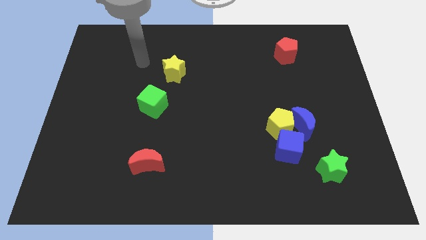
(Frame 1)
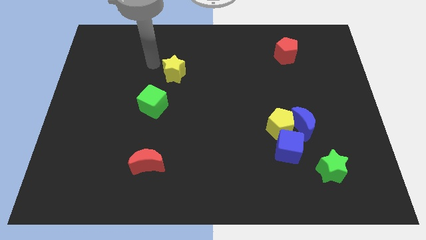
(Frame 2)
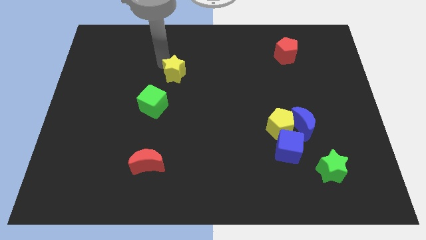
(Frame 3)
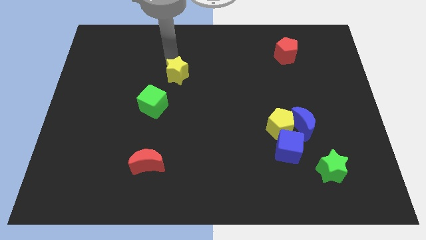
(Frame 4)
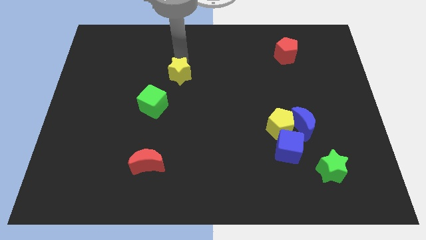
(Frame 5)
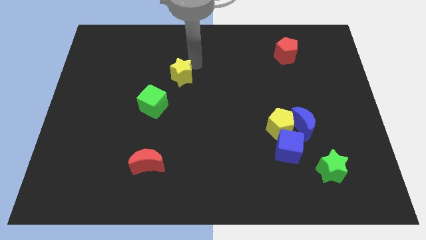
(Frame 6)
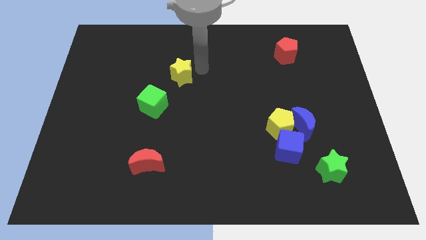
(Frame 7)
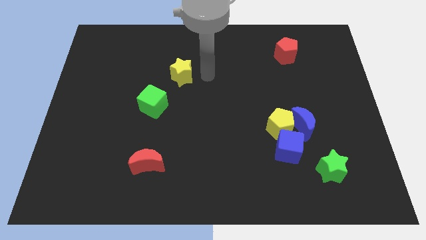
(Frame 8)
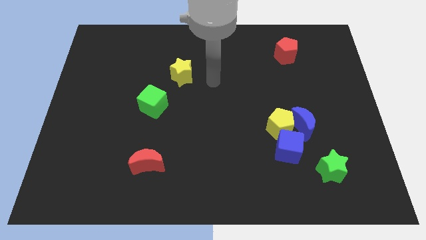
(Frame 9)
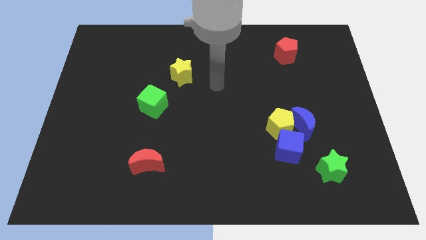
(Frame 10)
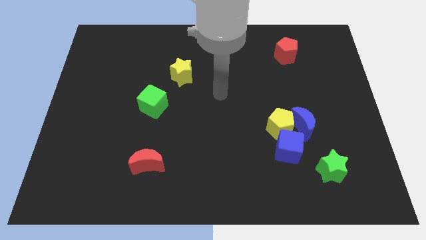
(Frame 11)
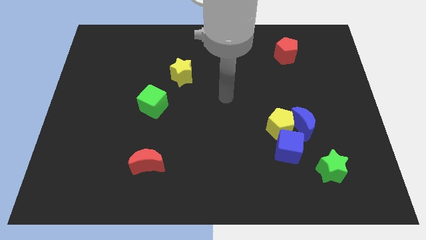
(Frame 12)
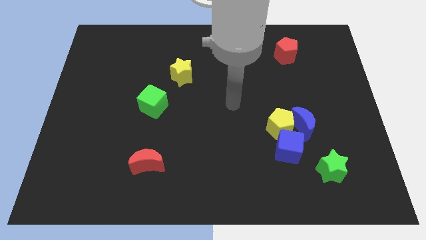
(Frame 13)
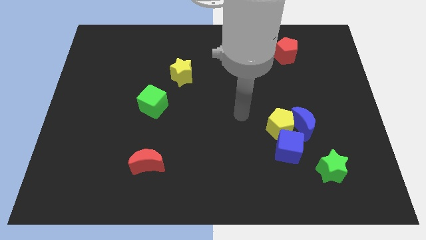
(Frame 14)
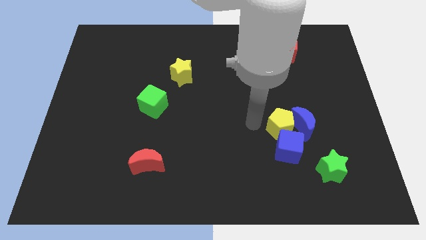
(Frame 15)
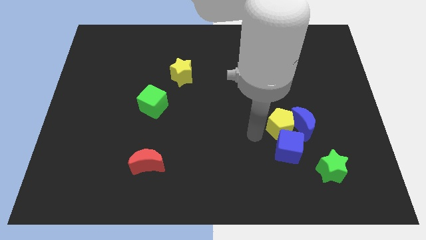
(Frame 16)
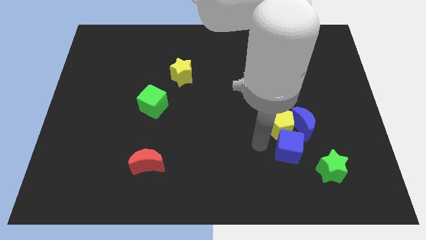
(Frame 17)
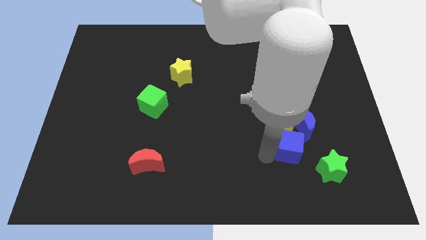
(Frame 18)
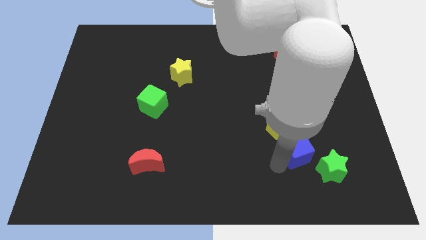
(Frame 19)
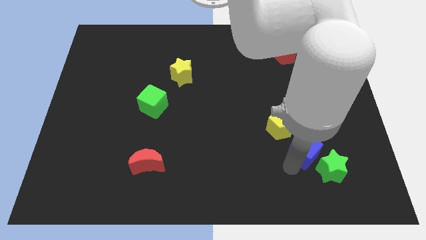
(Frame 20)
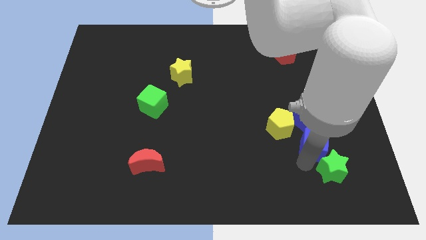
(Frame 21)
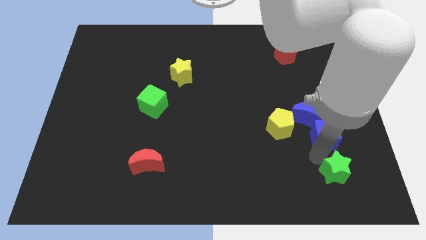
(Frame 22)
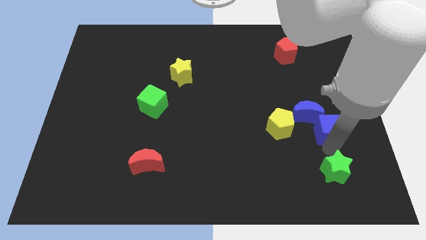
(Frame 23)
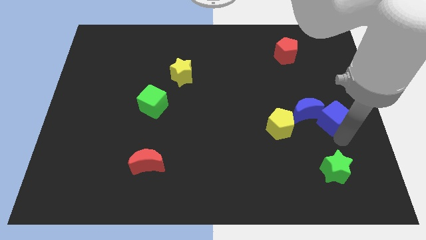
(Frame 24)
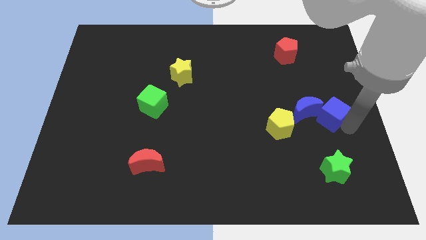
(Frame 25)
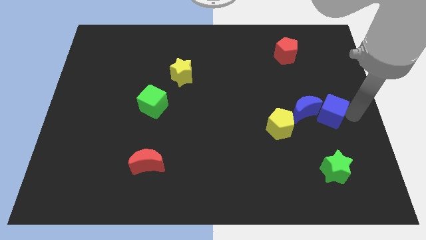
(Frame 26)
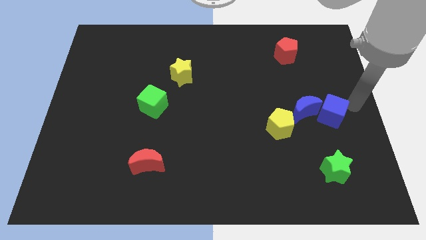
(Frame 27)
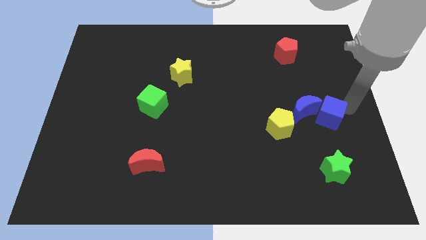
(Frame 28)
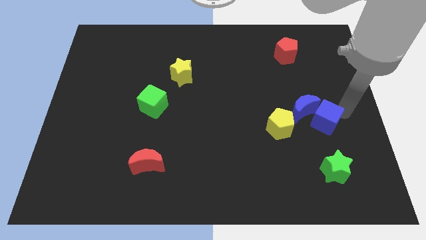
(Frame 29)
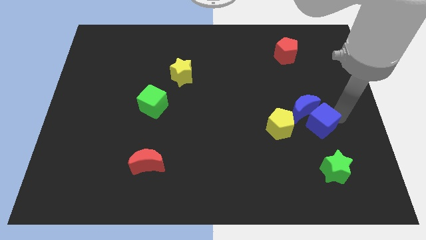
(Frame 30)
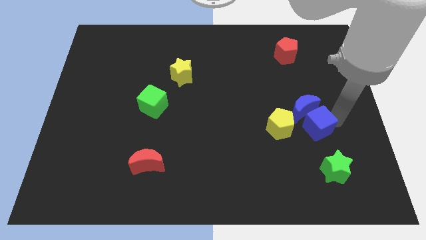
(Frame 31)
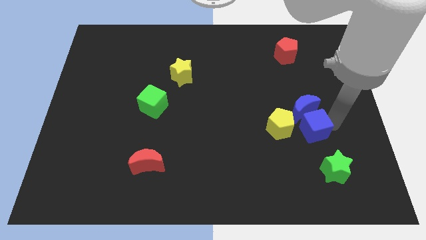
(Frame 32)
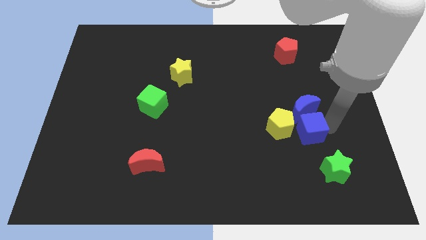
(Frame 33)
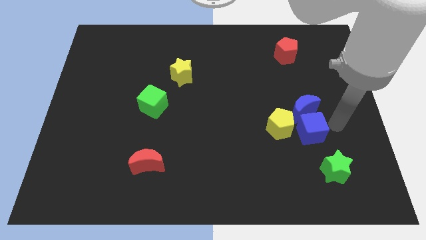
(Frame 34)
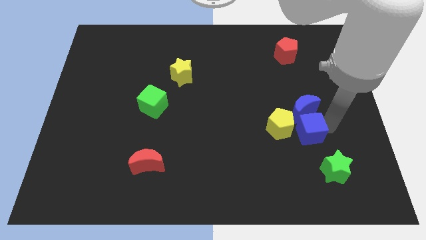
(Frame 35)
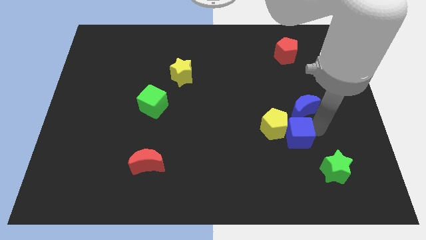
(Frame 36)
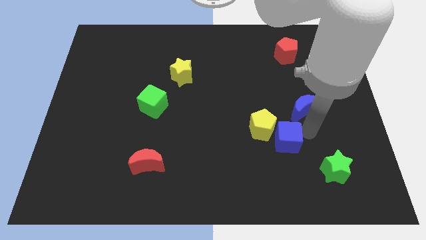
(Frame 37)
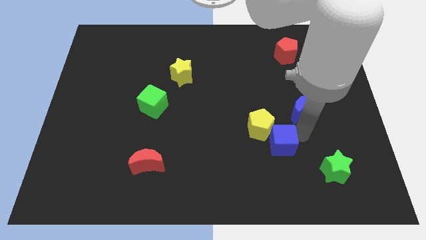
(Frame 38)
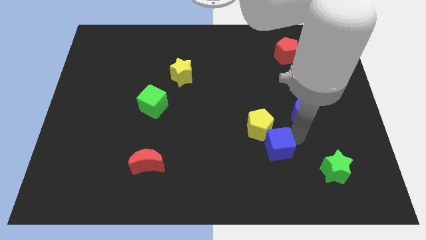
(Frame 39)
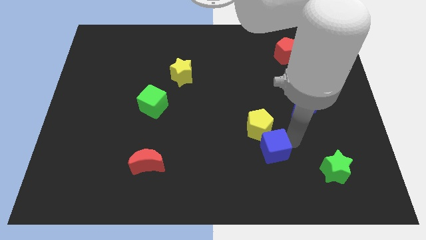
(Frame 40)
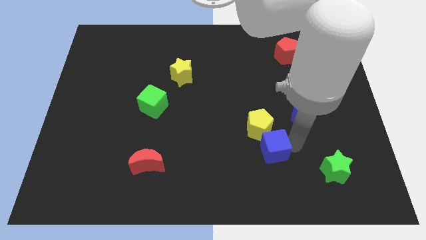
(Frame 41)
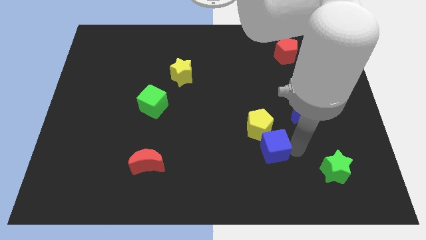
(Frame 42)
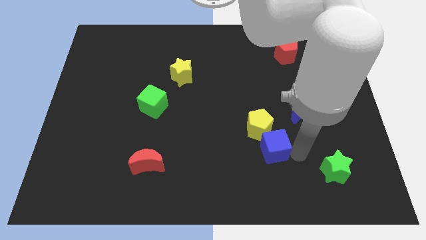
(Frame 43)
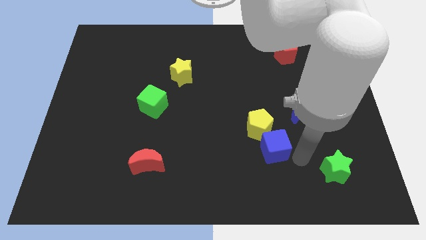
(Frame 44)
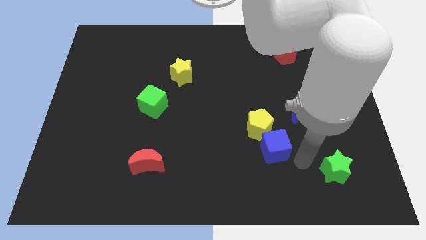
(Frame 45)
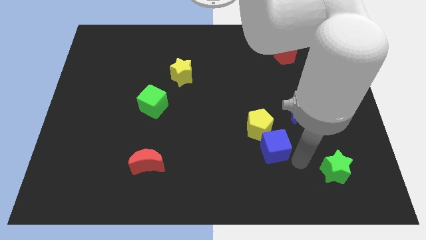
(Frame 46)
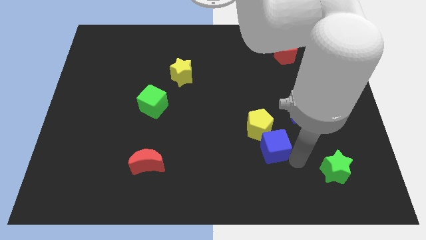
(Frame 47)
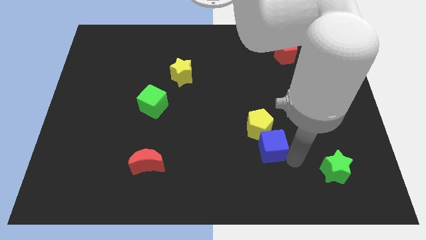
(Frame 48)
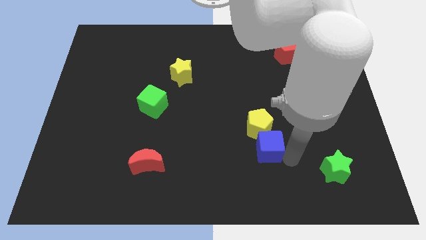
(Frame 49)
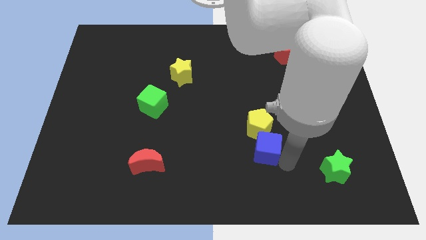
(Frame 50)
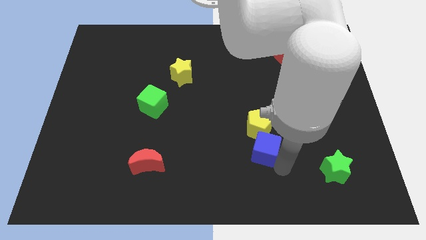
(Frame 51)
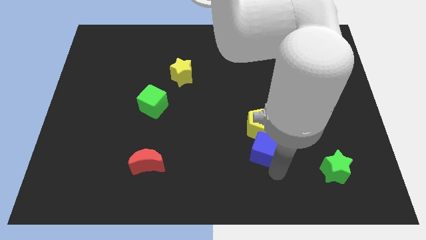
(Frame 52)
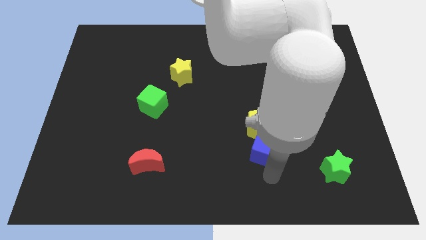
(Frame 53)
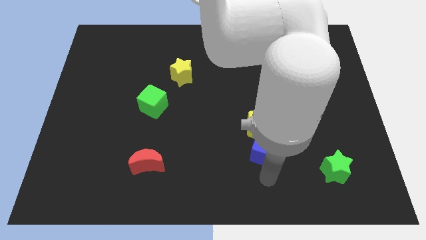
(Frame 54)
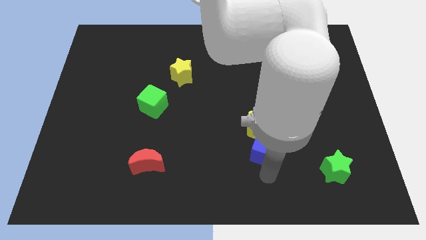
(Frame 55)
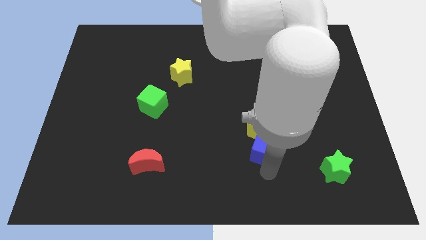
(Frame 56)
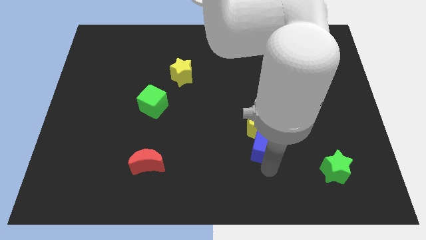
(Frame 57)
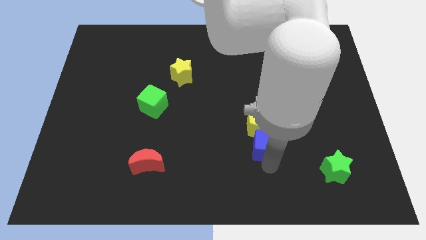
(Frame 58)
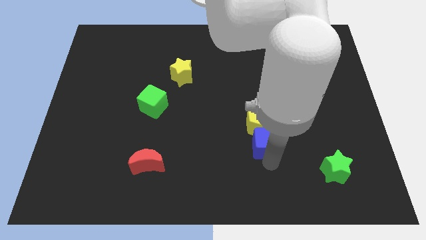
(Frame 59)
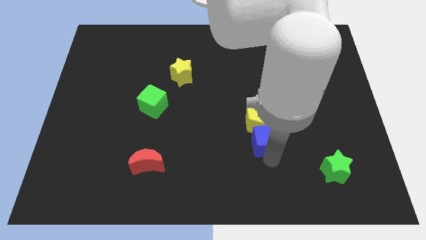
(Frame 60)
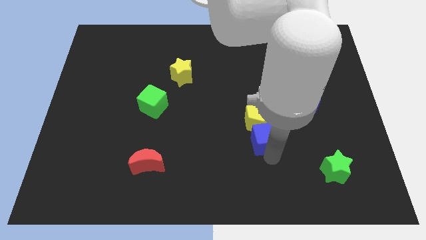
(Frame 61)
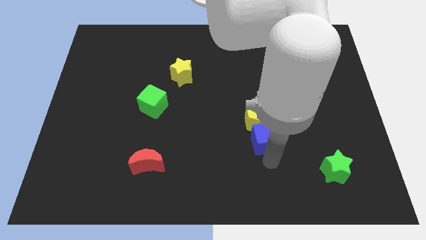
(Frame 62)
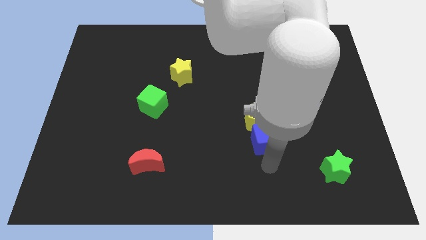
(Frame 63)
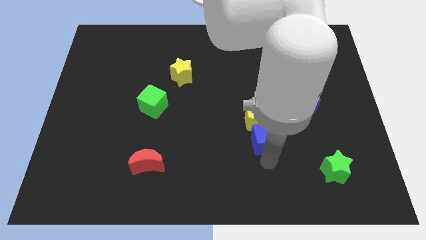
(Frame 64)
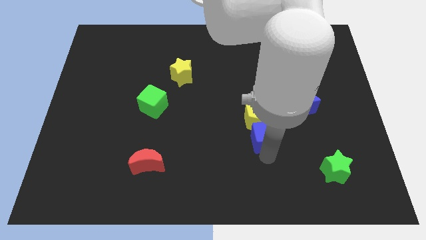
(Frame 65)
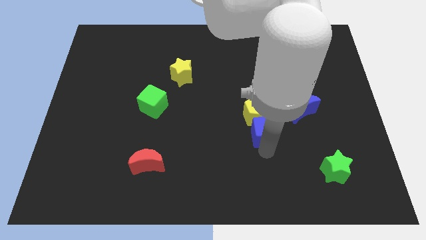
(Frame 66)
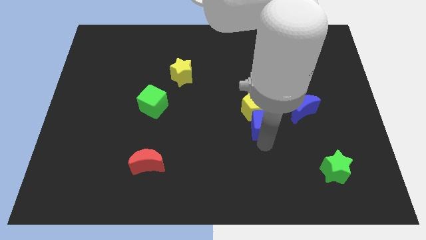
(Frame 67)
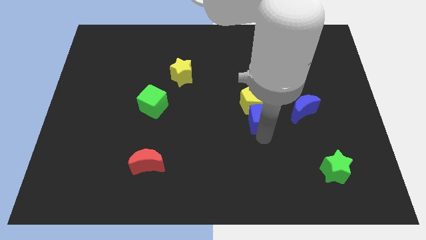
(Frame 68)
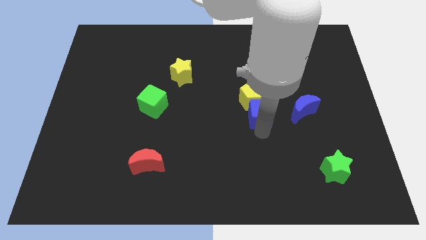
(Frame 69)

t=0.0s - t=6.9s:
push the blue cube upwards slightly

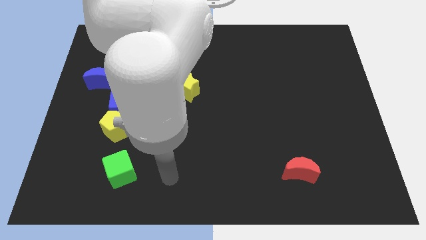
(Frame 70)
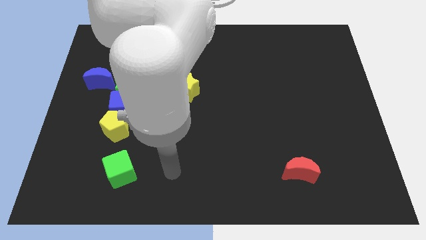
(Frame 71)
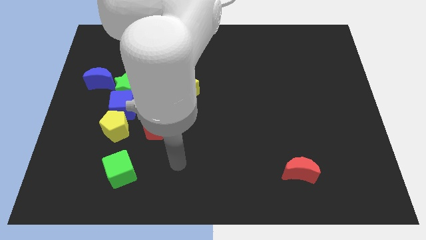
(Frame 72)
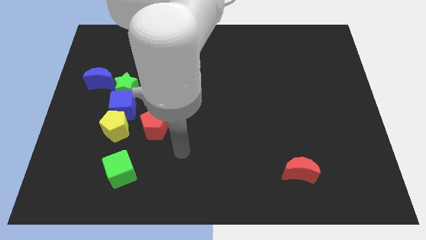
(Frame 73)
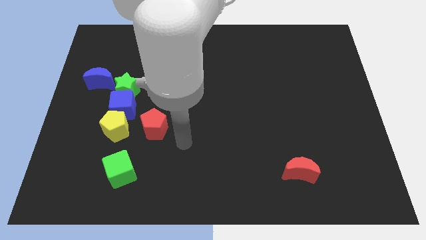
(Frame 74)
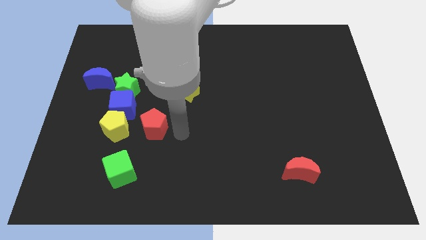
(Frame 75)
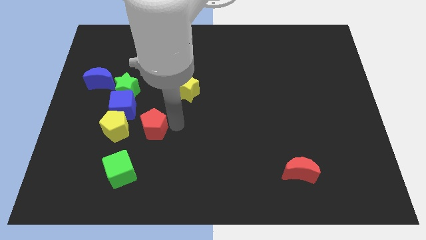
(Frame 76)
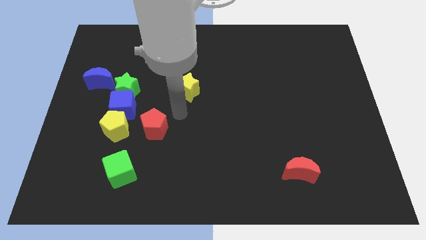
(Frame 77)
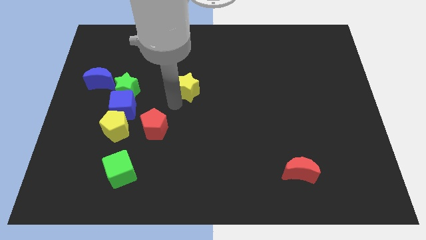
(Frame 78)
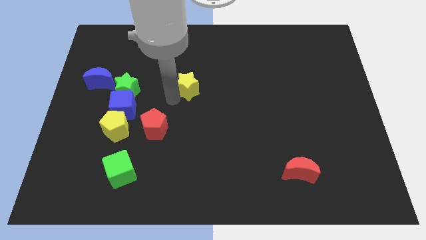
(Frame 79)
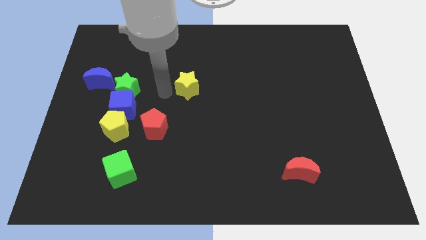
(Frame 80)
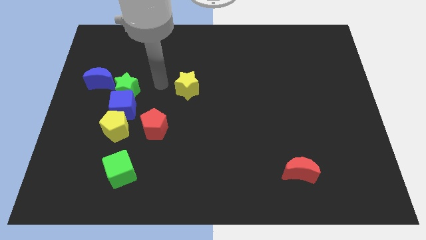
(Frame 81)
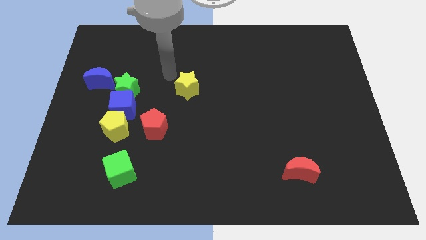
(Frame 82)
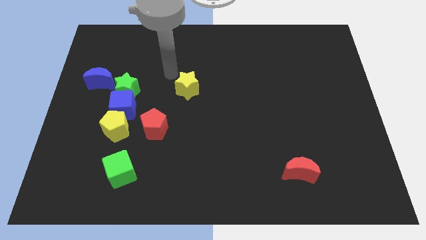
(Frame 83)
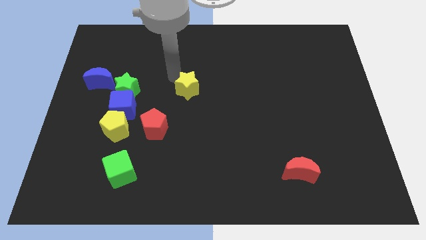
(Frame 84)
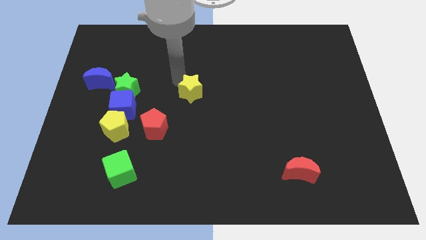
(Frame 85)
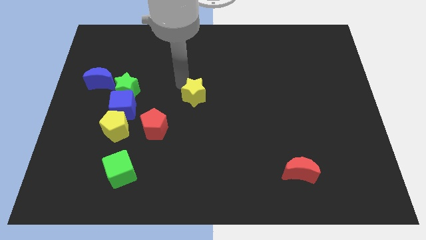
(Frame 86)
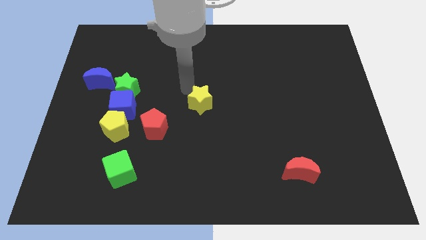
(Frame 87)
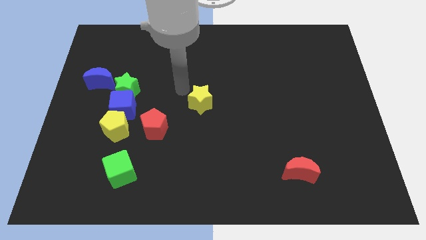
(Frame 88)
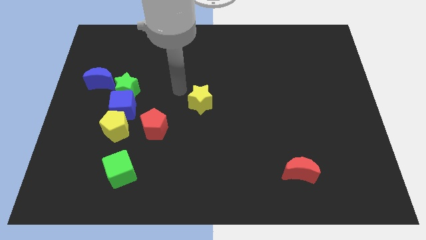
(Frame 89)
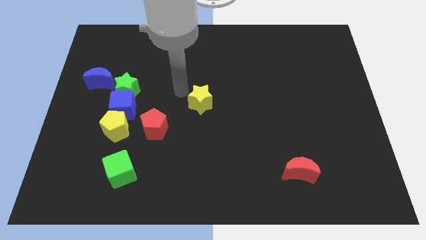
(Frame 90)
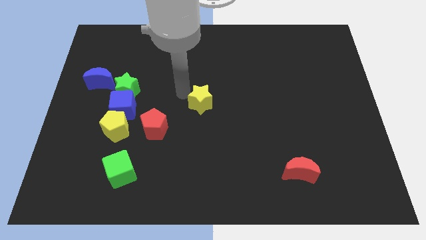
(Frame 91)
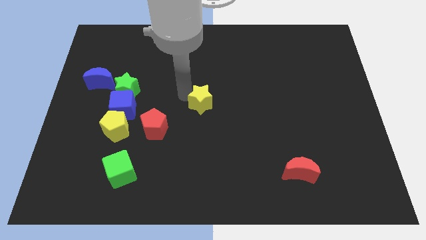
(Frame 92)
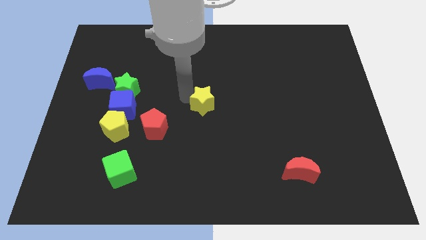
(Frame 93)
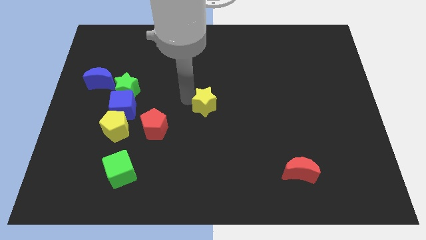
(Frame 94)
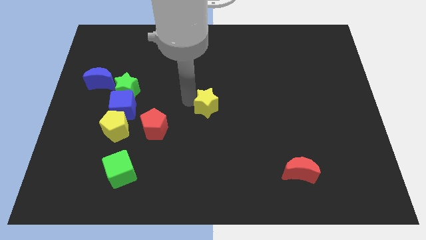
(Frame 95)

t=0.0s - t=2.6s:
move the yellow star a little down and then to the right
